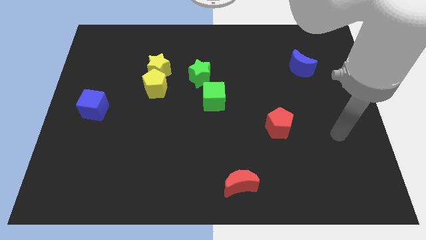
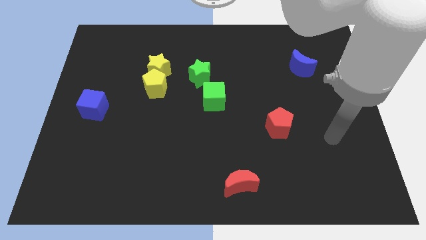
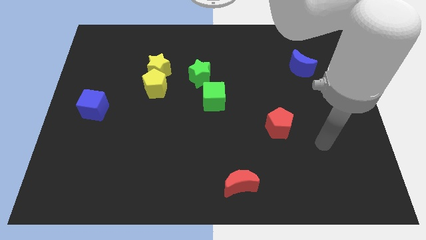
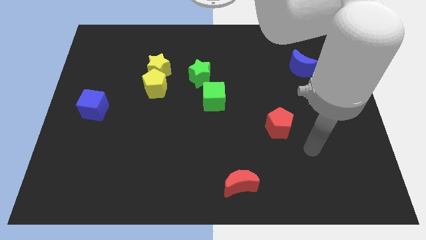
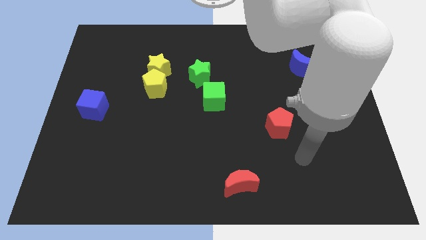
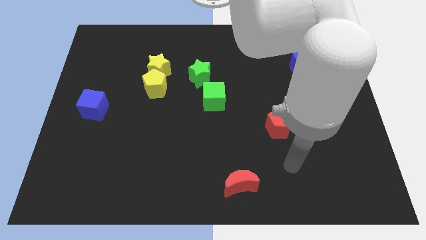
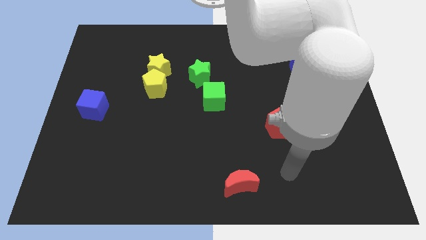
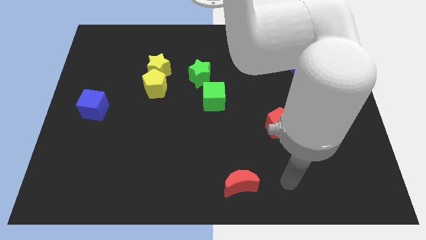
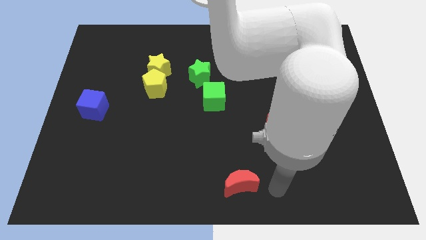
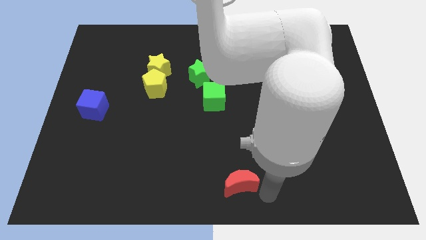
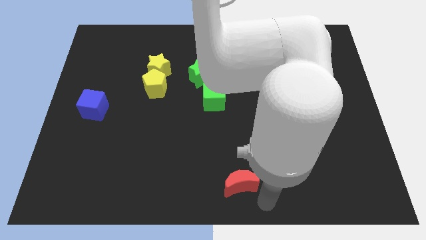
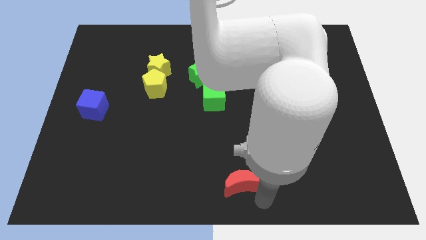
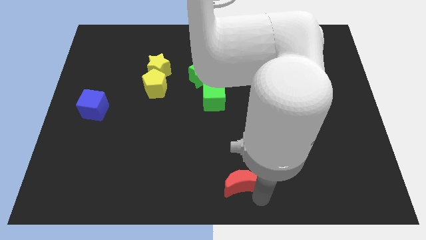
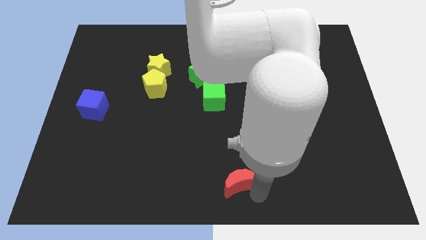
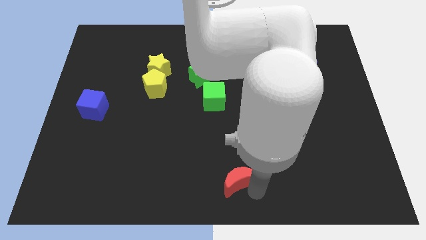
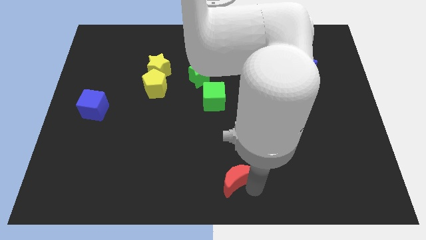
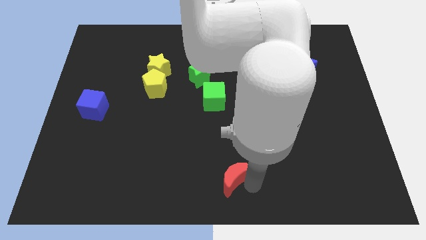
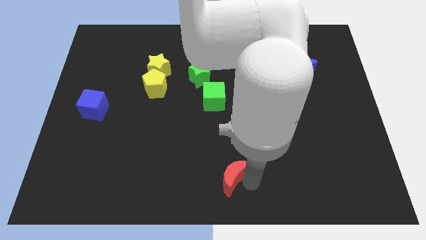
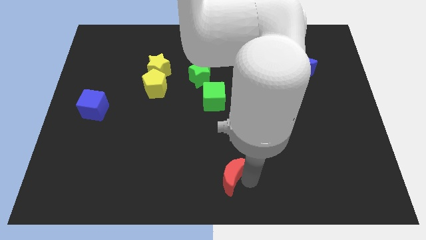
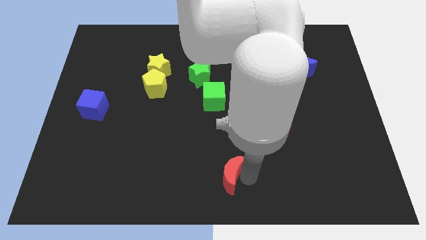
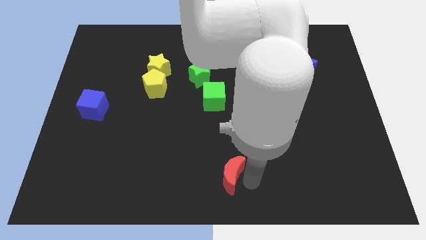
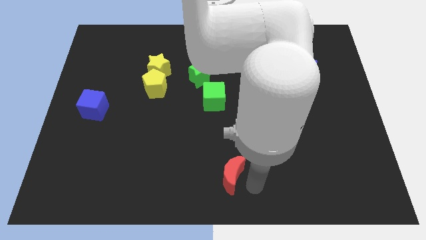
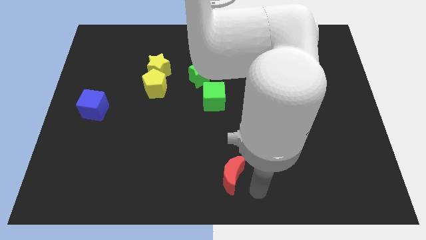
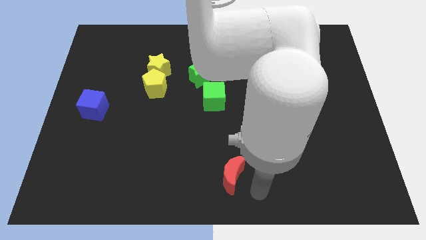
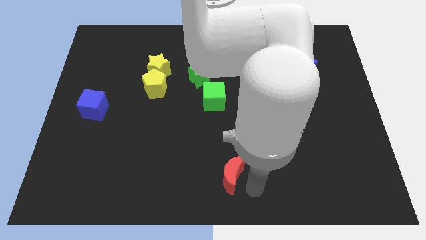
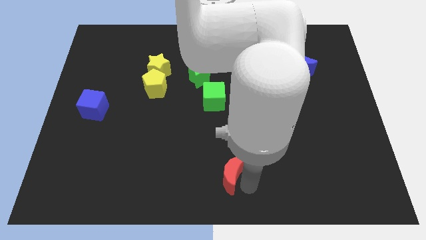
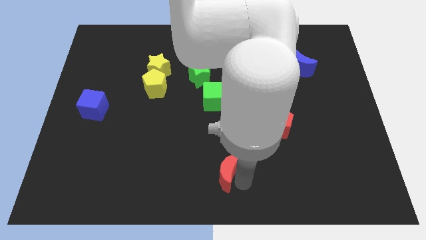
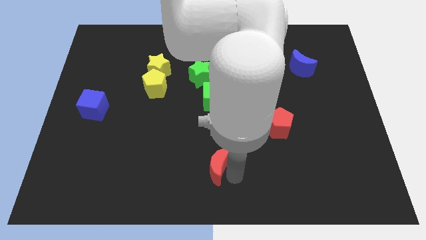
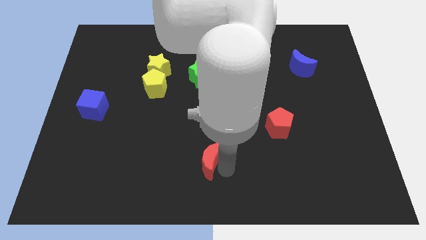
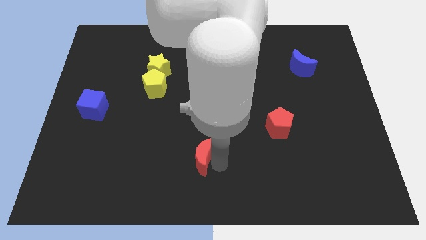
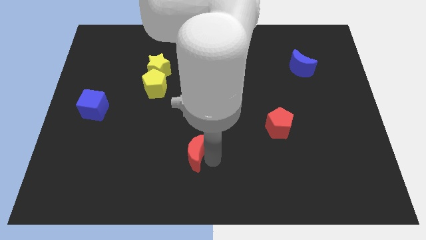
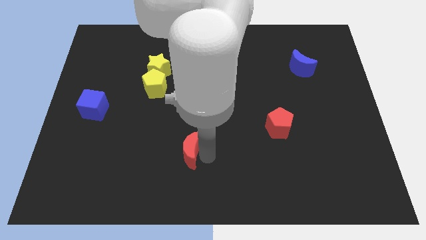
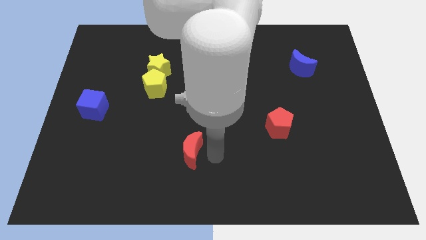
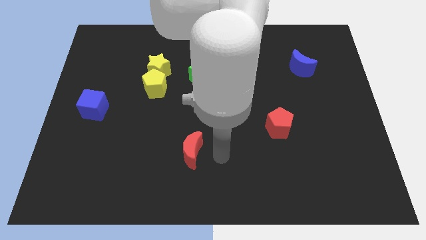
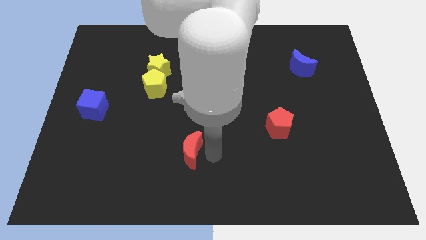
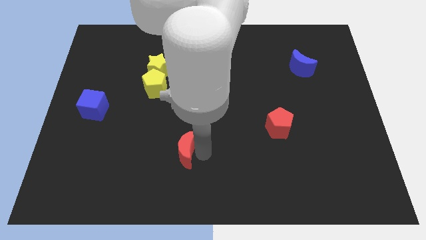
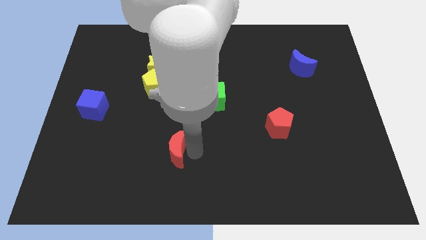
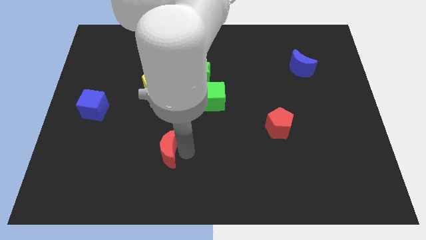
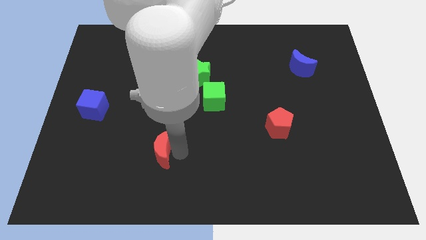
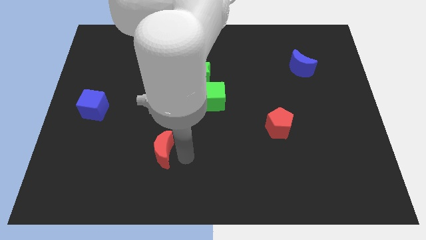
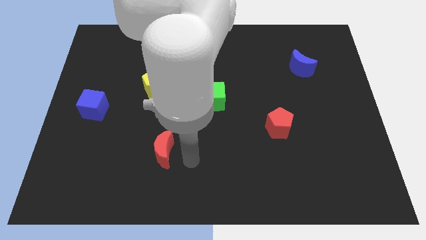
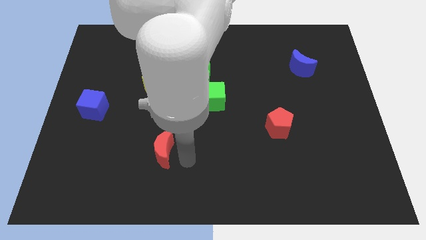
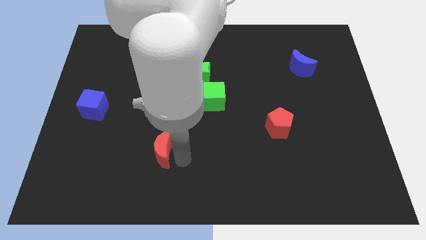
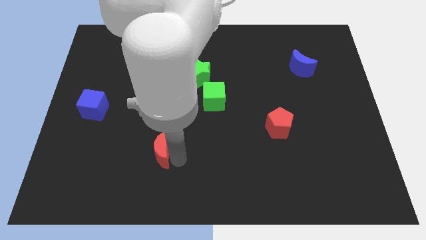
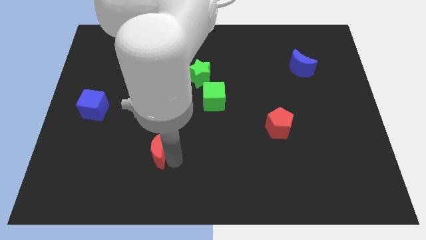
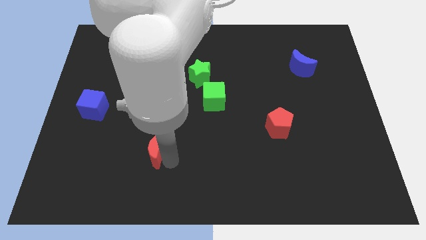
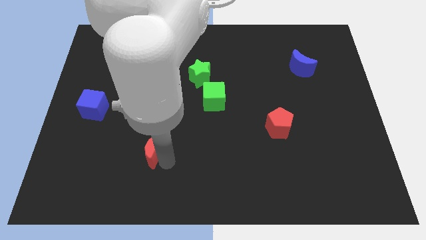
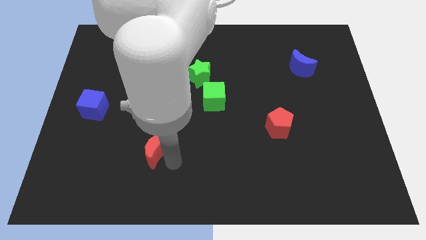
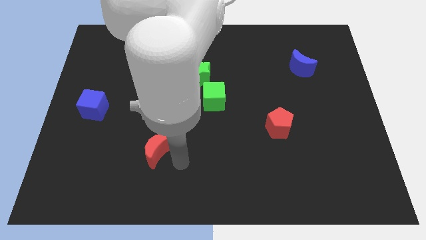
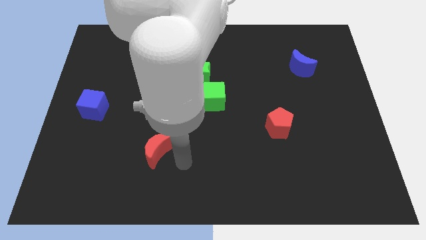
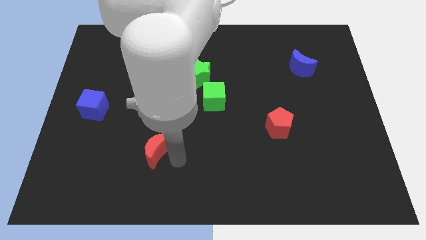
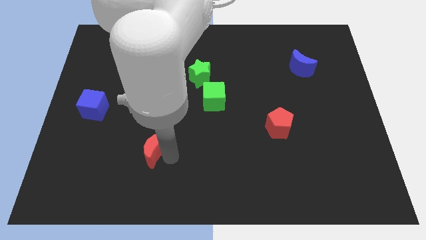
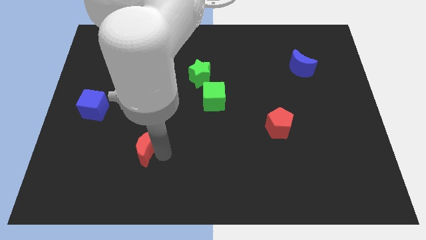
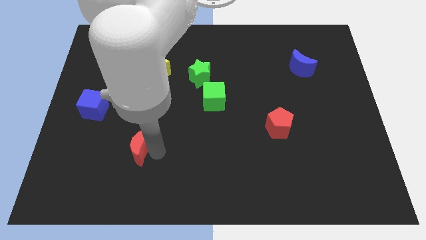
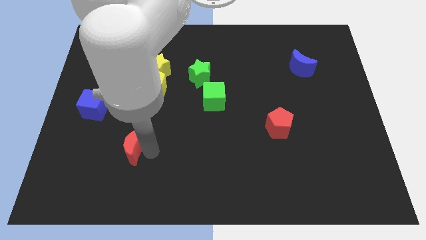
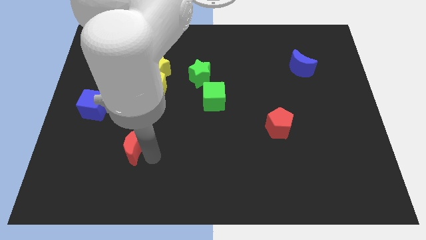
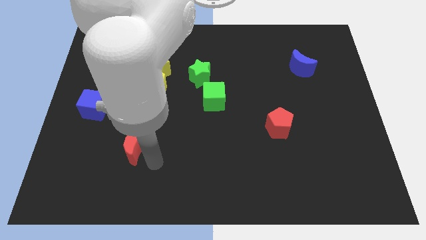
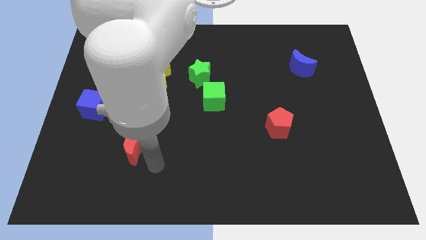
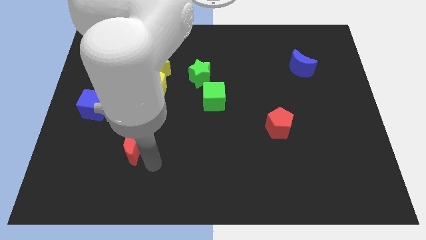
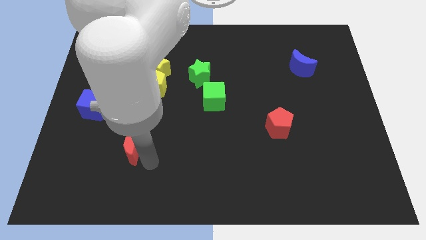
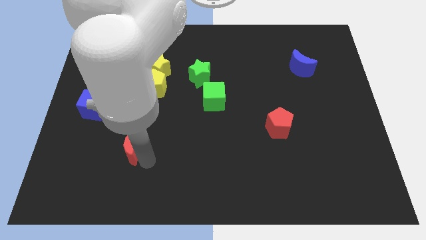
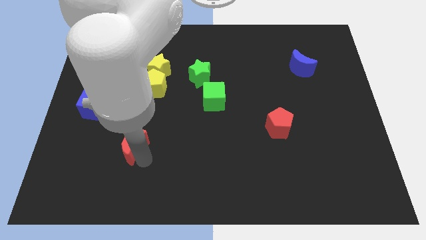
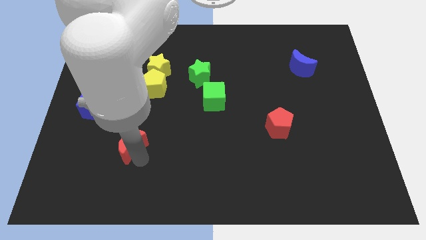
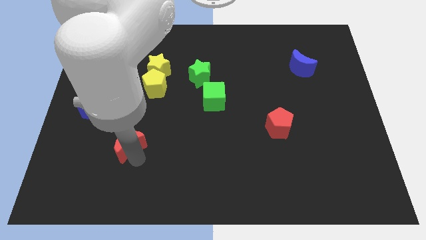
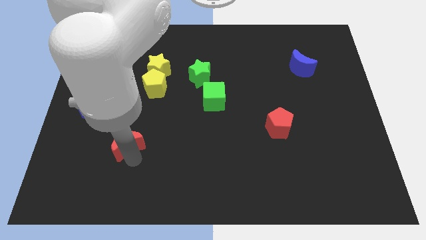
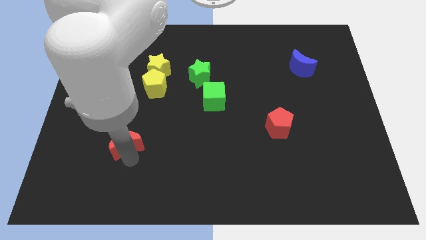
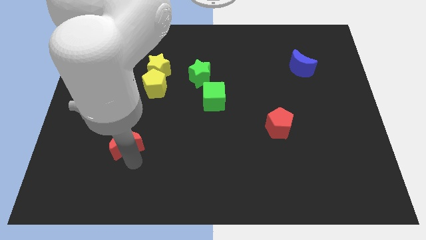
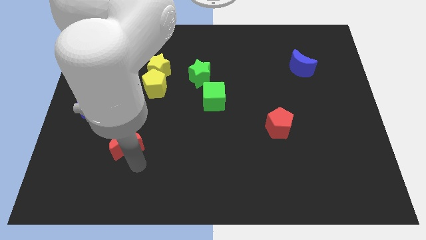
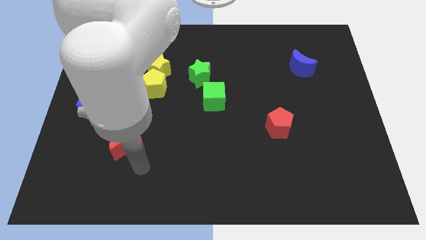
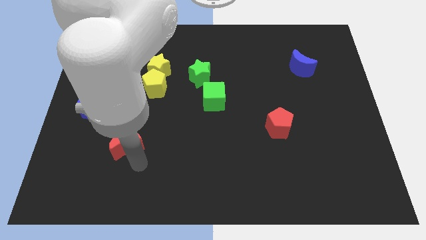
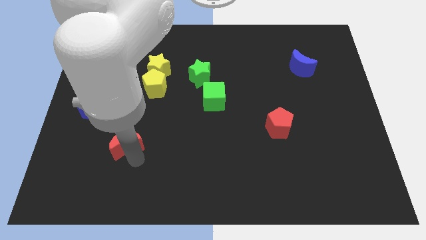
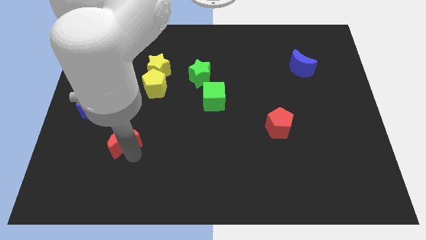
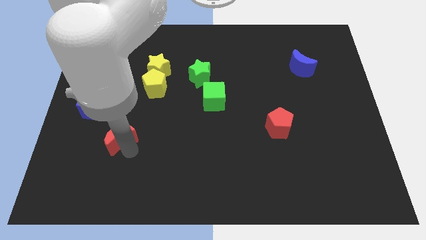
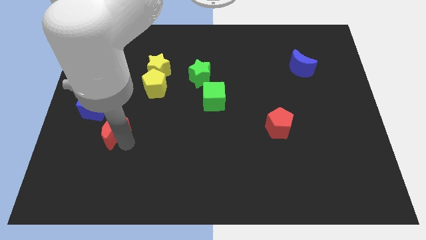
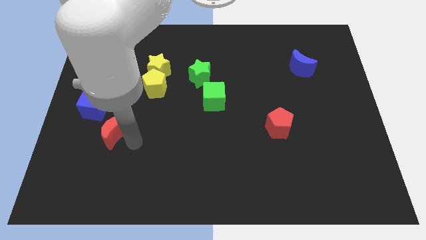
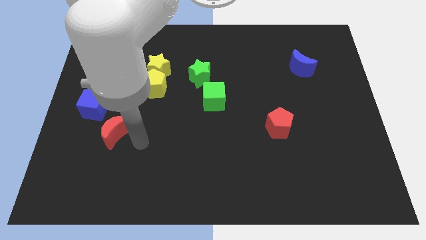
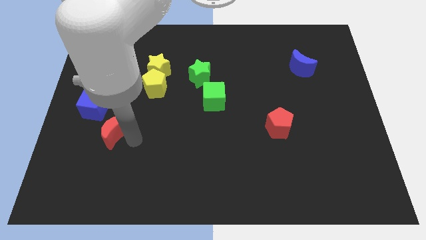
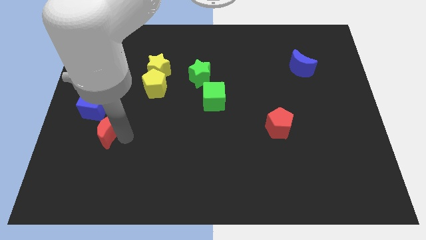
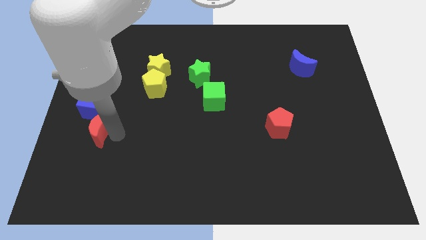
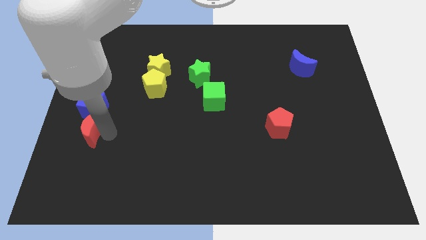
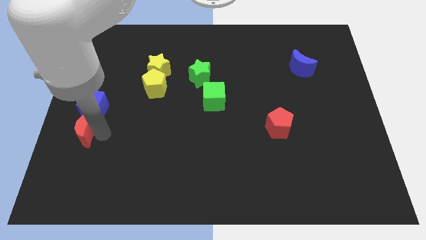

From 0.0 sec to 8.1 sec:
slide the red moon to the left side
